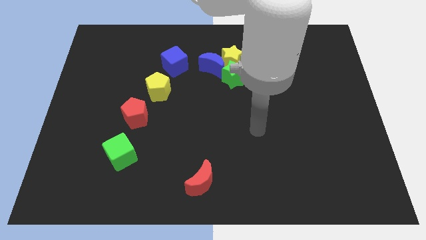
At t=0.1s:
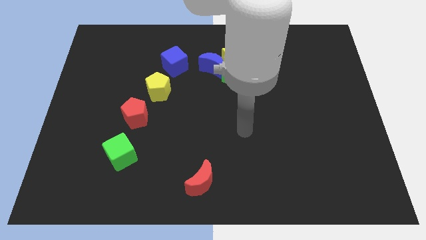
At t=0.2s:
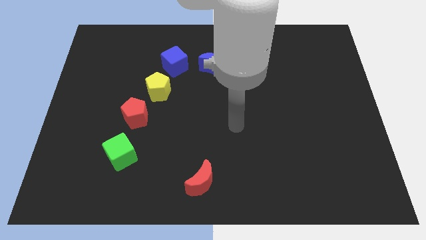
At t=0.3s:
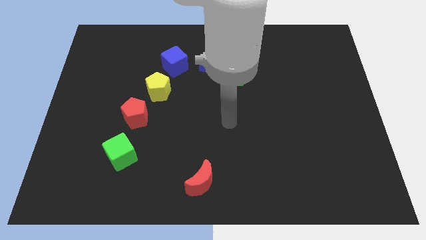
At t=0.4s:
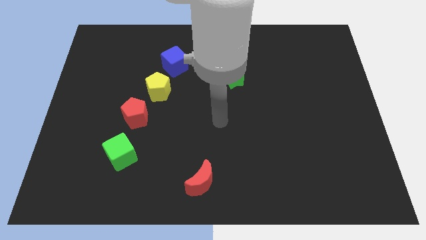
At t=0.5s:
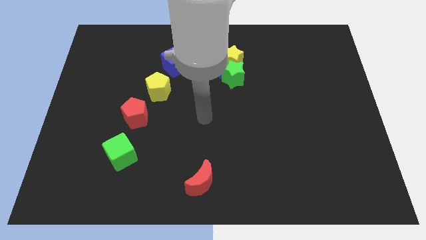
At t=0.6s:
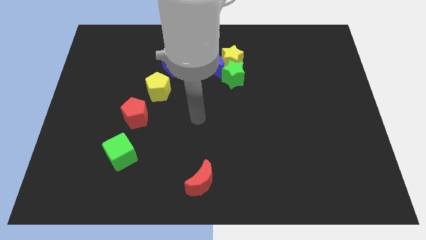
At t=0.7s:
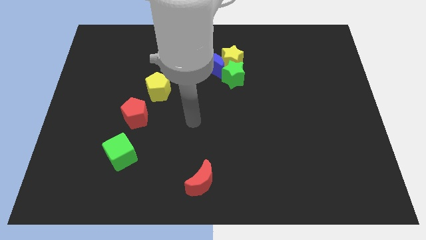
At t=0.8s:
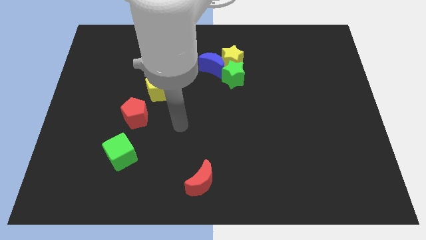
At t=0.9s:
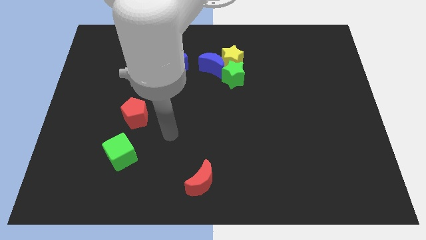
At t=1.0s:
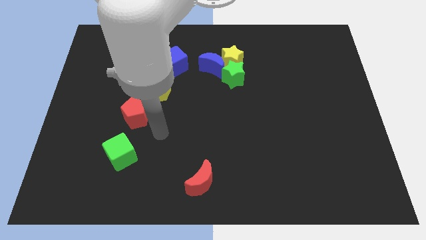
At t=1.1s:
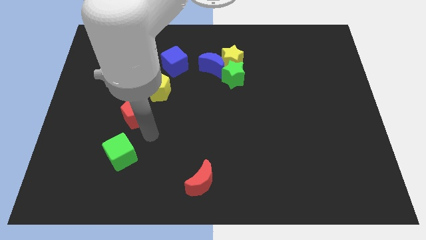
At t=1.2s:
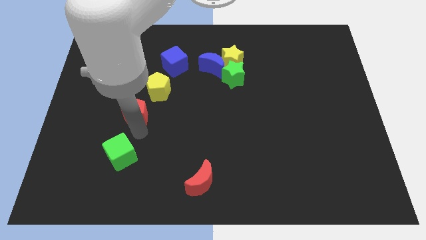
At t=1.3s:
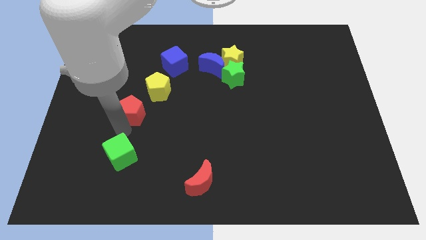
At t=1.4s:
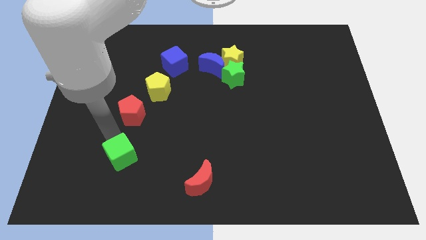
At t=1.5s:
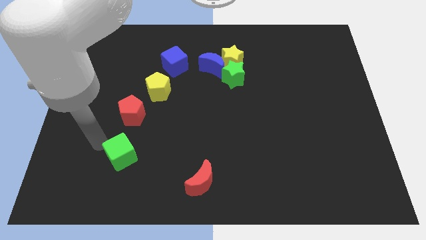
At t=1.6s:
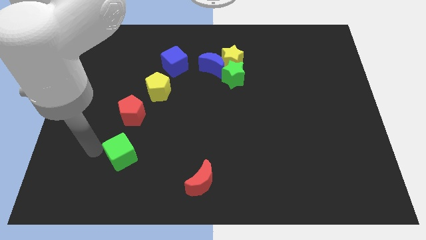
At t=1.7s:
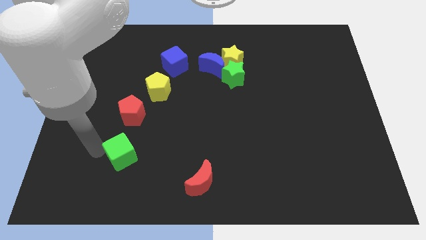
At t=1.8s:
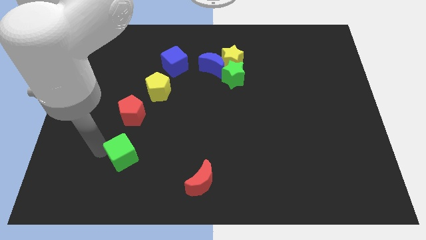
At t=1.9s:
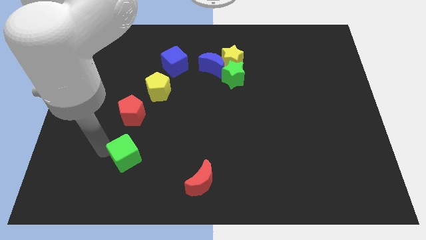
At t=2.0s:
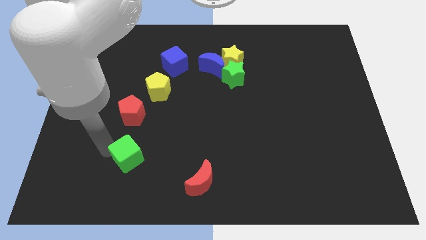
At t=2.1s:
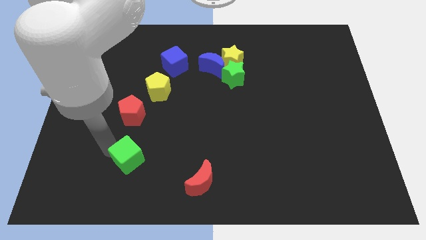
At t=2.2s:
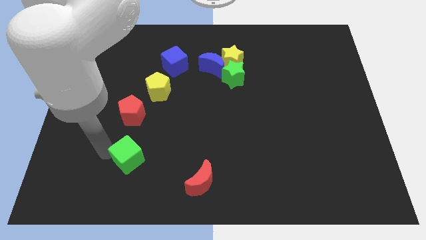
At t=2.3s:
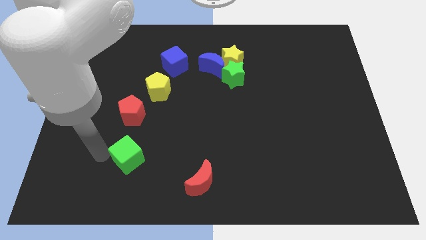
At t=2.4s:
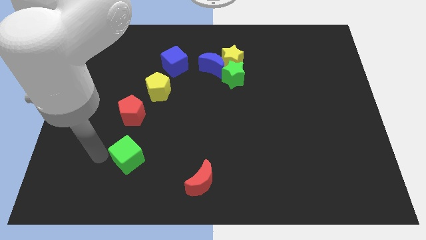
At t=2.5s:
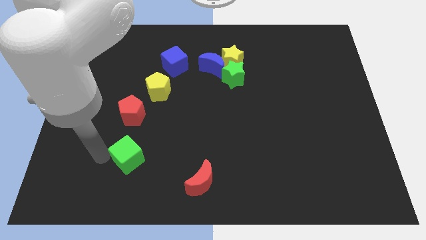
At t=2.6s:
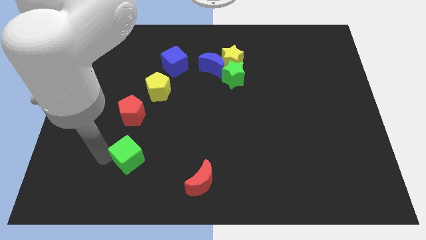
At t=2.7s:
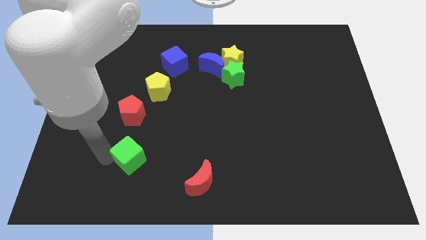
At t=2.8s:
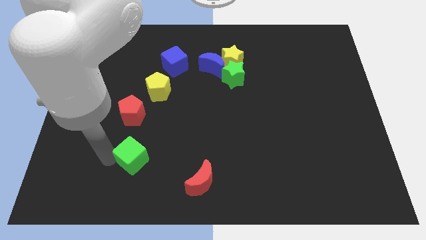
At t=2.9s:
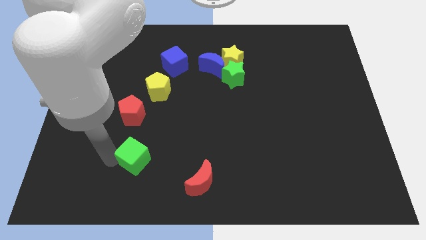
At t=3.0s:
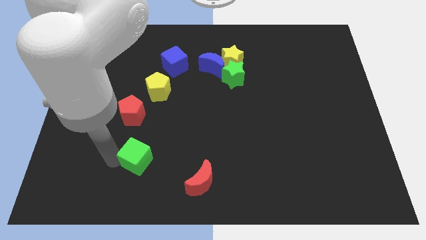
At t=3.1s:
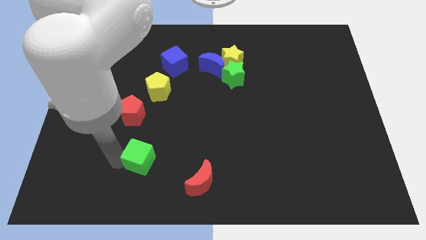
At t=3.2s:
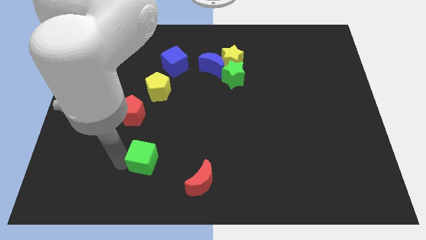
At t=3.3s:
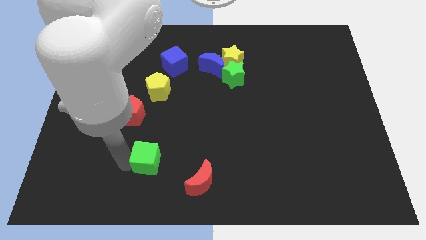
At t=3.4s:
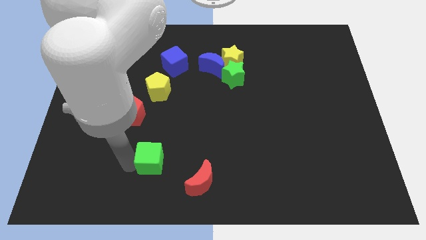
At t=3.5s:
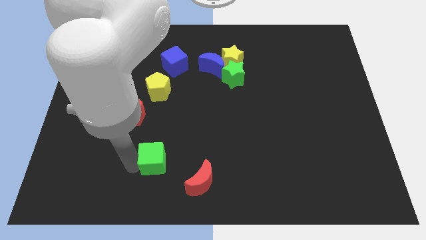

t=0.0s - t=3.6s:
slightly move the green cube to the right

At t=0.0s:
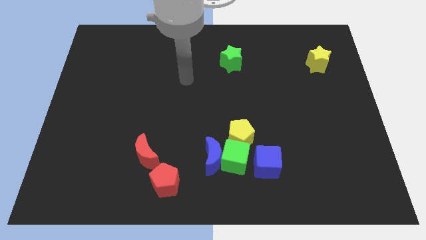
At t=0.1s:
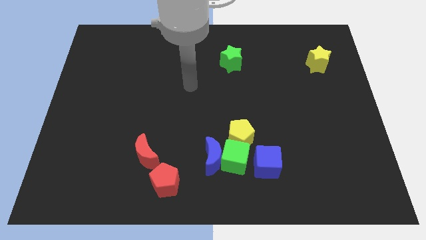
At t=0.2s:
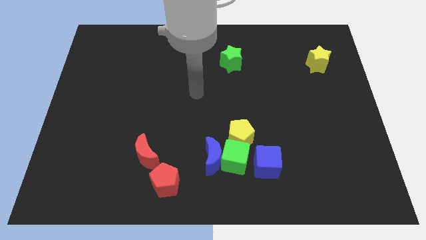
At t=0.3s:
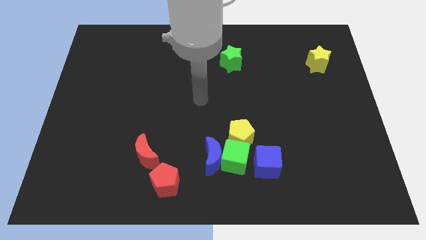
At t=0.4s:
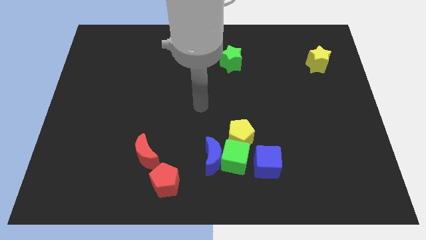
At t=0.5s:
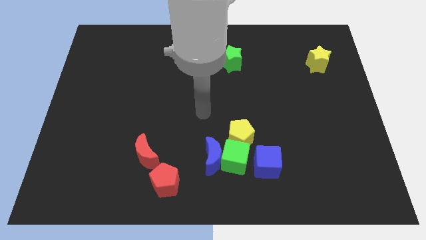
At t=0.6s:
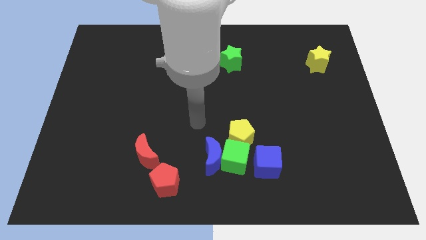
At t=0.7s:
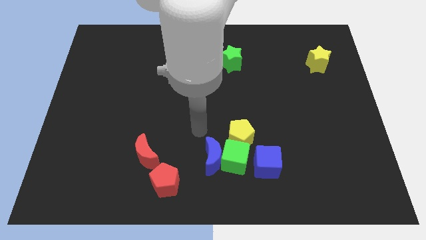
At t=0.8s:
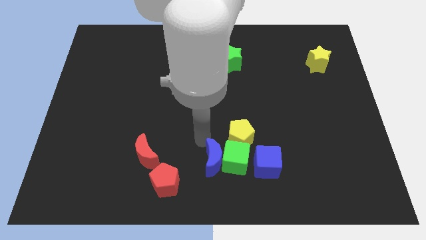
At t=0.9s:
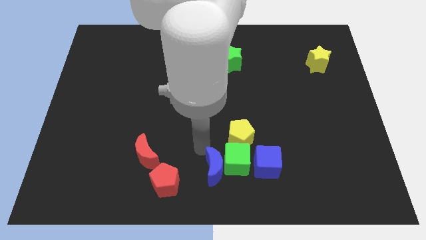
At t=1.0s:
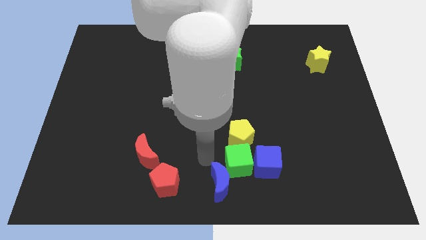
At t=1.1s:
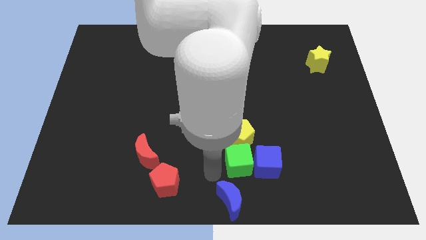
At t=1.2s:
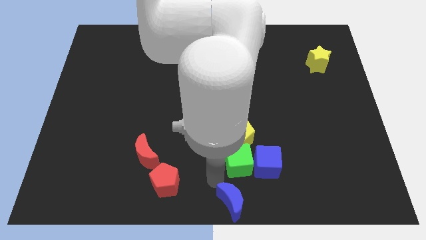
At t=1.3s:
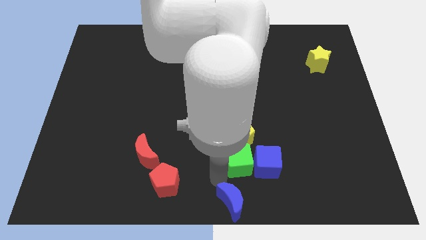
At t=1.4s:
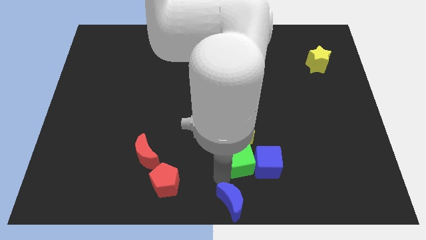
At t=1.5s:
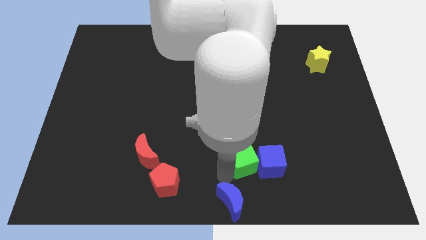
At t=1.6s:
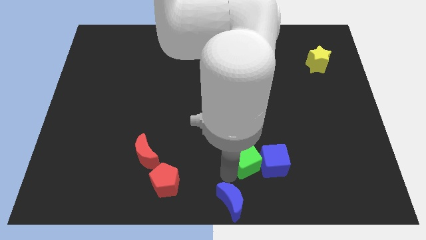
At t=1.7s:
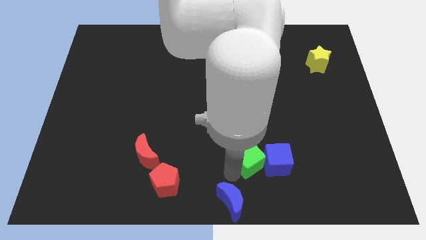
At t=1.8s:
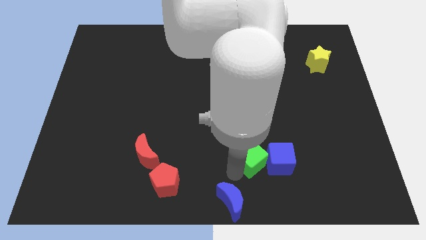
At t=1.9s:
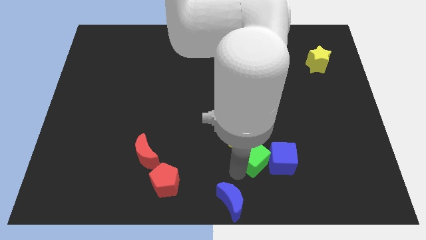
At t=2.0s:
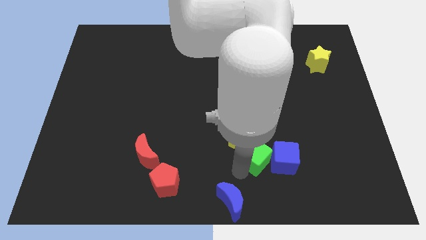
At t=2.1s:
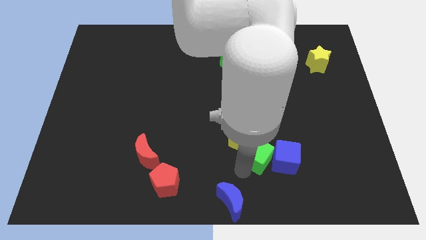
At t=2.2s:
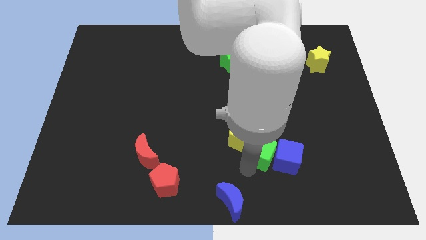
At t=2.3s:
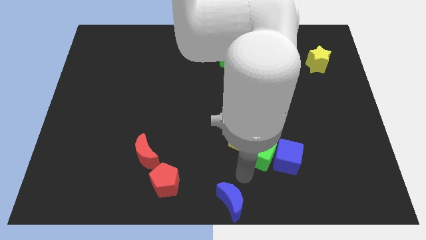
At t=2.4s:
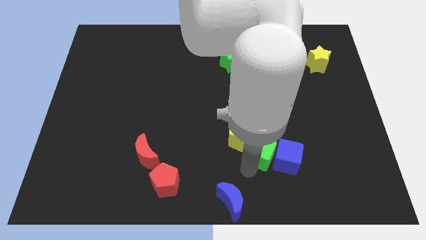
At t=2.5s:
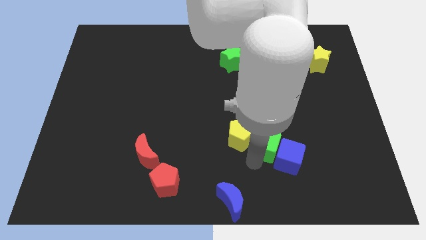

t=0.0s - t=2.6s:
push the green cube somewhat up and then right

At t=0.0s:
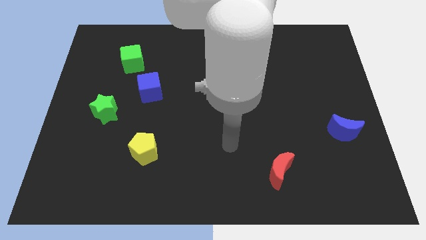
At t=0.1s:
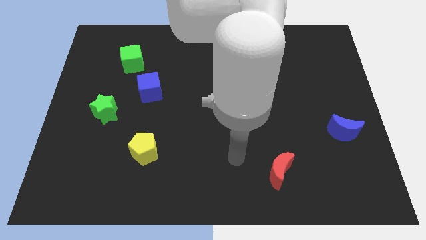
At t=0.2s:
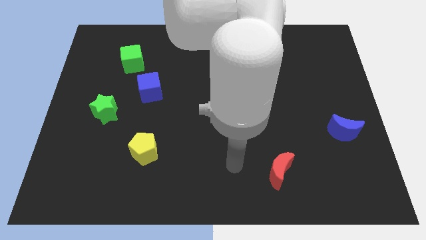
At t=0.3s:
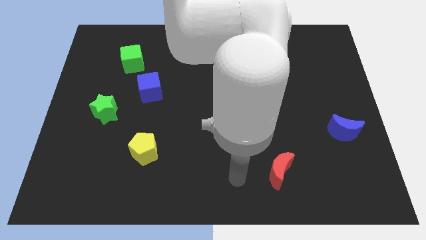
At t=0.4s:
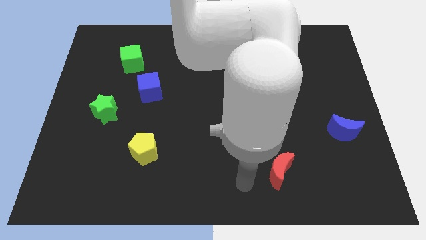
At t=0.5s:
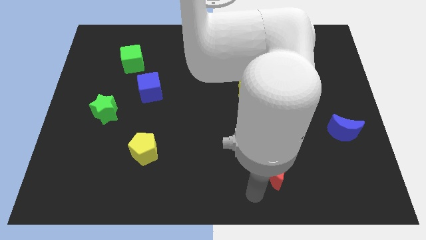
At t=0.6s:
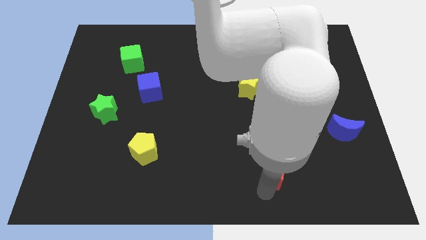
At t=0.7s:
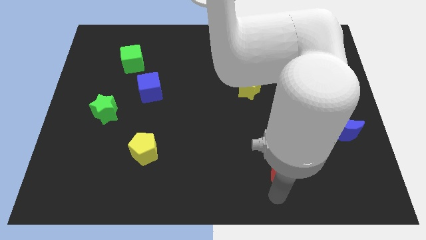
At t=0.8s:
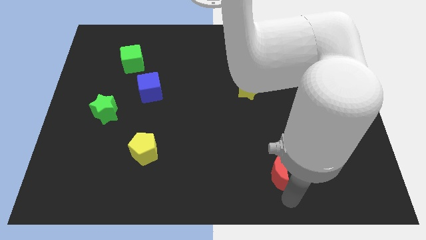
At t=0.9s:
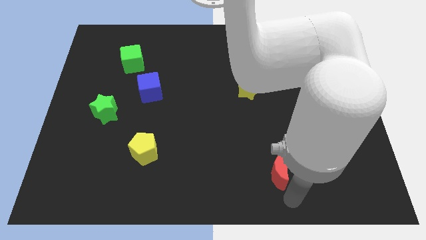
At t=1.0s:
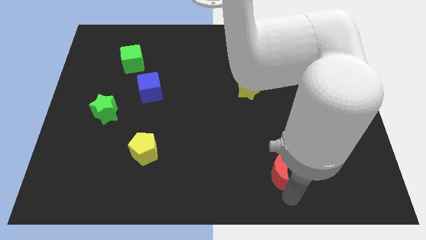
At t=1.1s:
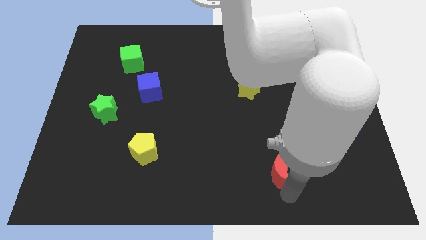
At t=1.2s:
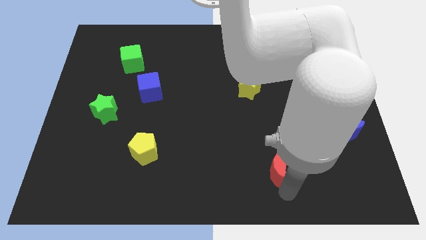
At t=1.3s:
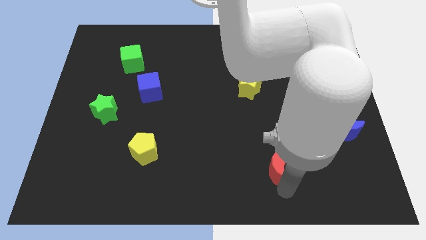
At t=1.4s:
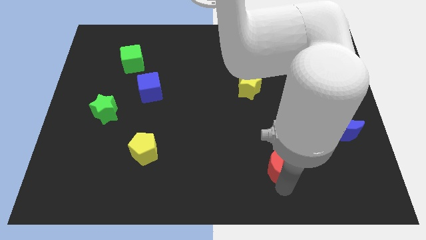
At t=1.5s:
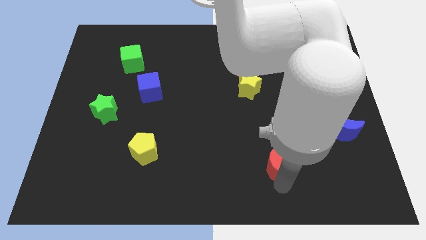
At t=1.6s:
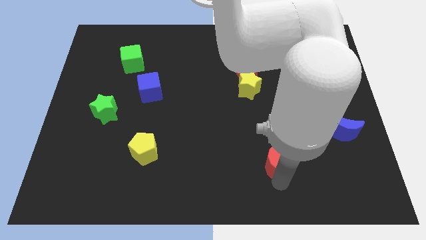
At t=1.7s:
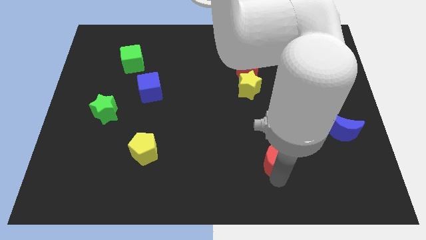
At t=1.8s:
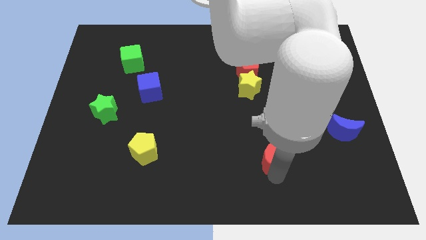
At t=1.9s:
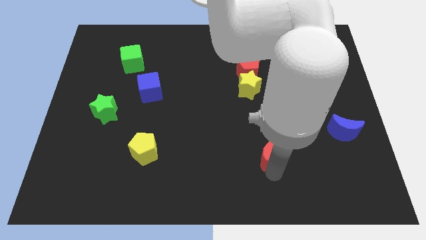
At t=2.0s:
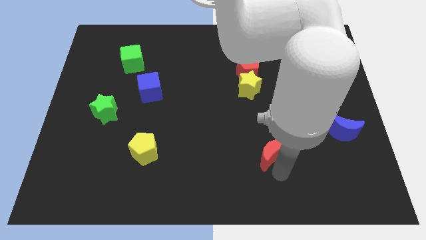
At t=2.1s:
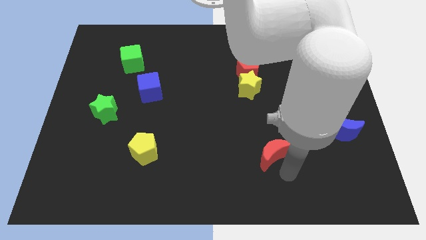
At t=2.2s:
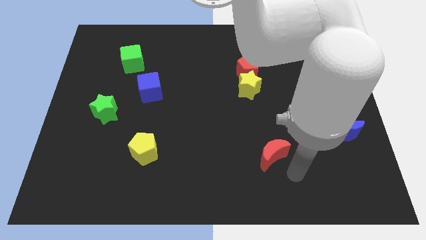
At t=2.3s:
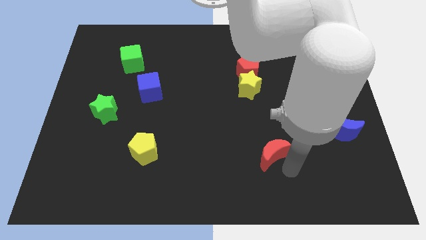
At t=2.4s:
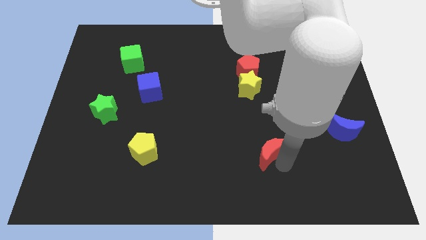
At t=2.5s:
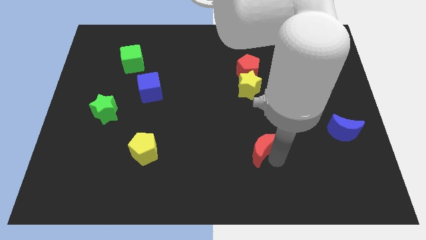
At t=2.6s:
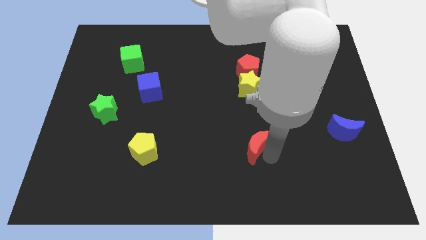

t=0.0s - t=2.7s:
move the red moon somewhat diagonally upwards and to the left
